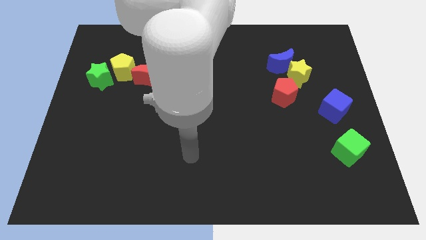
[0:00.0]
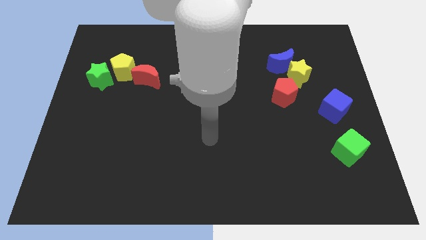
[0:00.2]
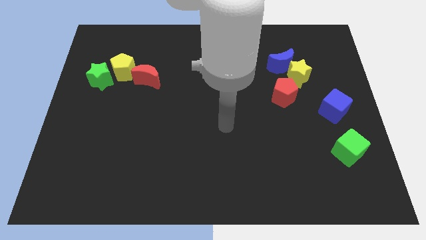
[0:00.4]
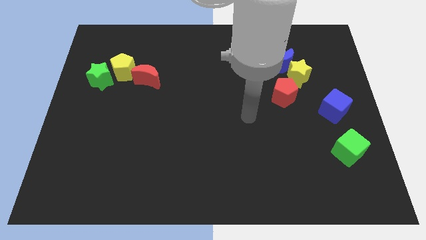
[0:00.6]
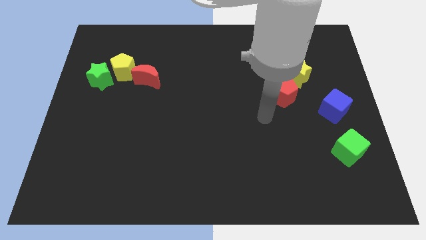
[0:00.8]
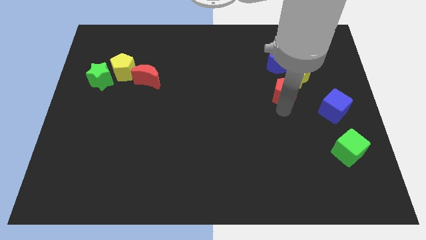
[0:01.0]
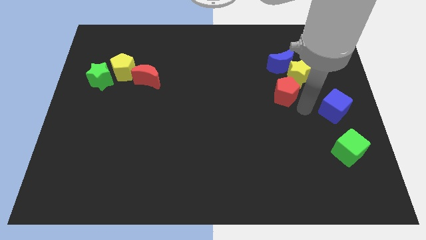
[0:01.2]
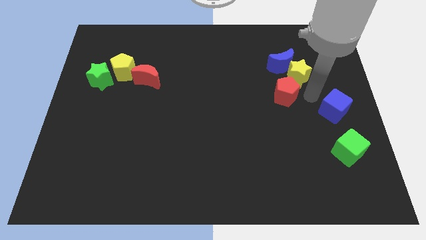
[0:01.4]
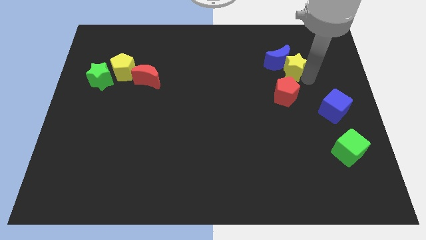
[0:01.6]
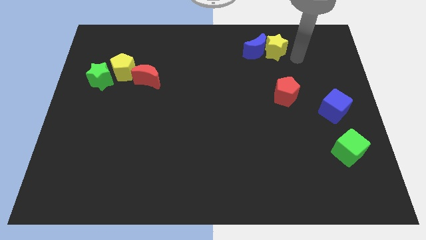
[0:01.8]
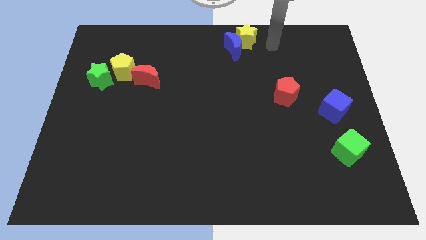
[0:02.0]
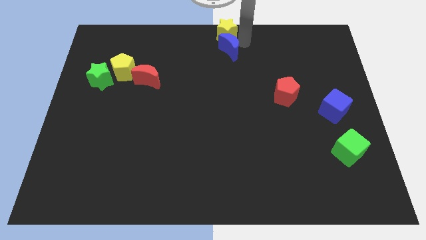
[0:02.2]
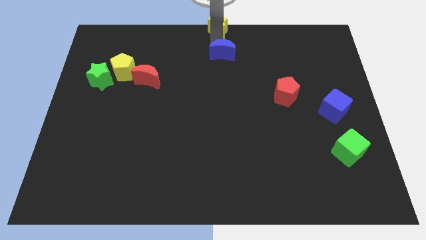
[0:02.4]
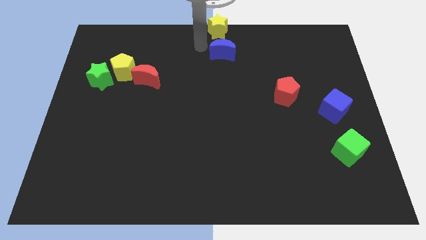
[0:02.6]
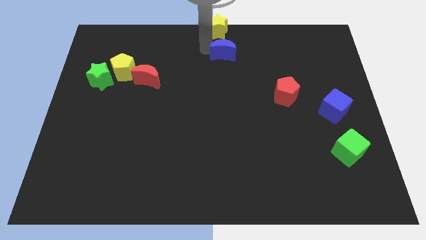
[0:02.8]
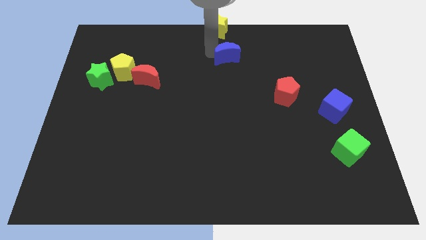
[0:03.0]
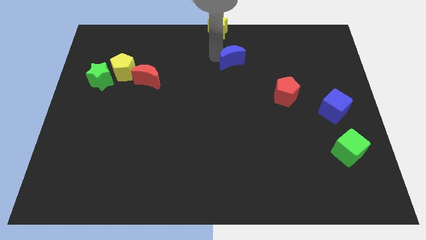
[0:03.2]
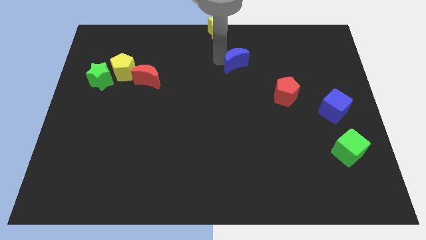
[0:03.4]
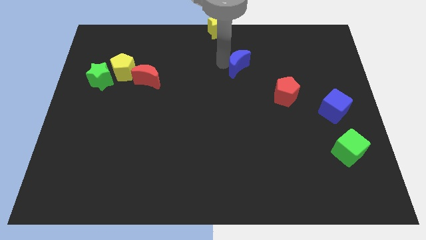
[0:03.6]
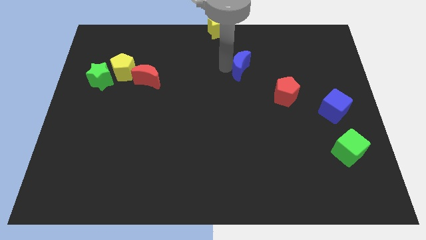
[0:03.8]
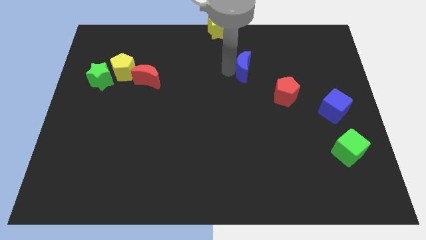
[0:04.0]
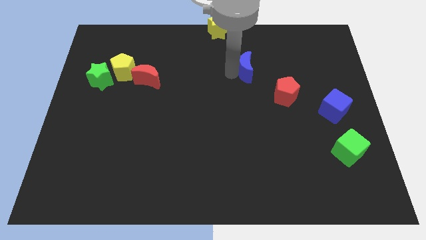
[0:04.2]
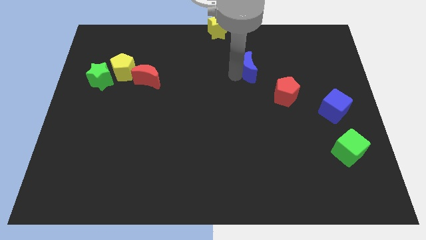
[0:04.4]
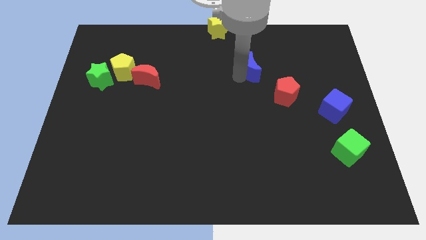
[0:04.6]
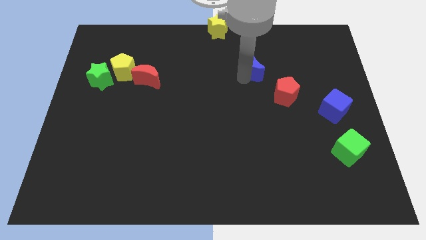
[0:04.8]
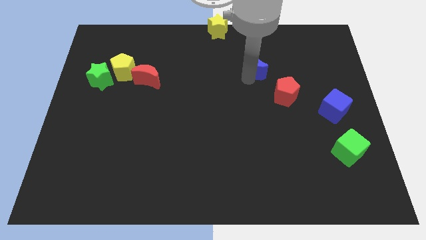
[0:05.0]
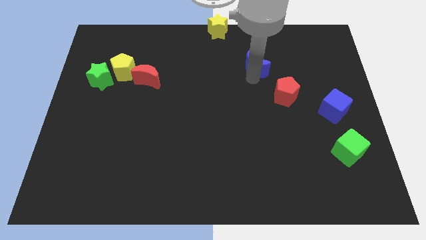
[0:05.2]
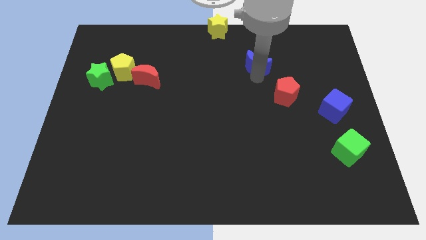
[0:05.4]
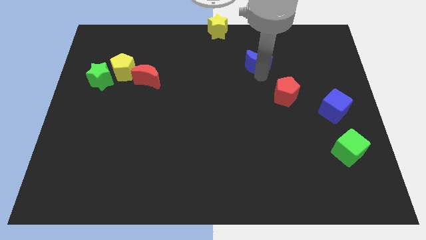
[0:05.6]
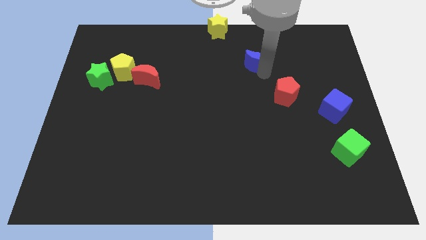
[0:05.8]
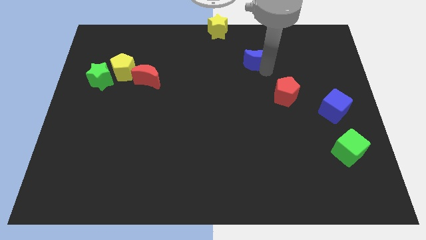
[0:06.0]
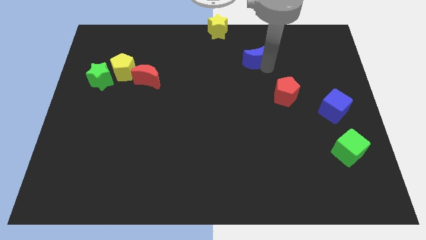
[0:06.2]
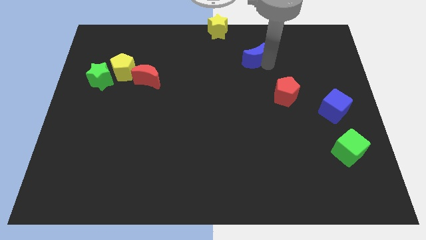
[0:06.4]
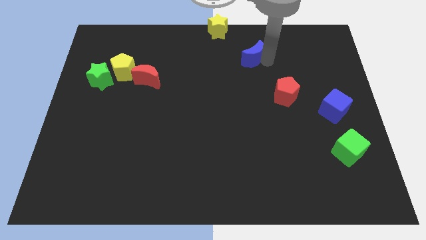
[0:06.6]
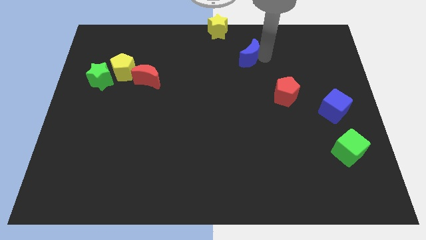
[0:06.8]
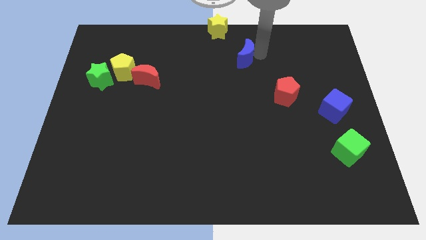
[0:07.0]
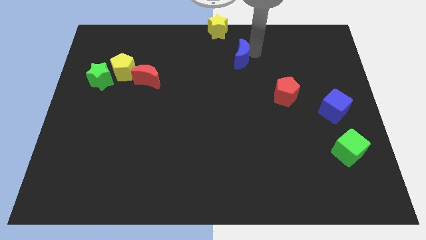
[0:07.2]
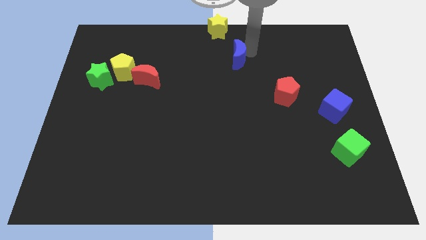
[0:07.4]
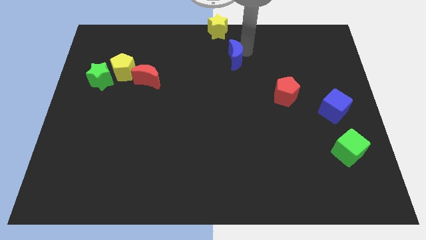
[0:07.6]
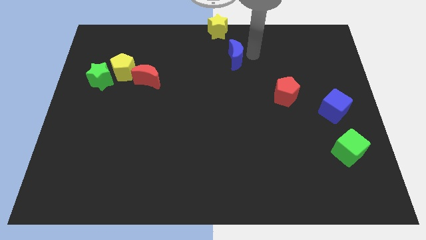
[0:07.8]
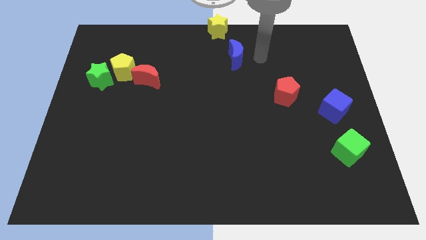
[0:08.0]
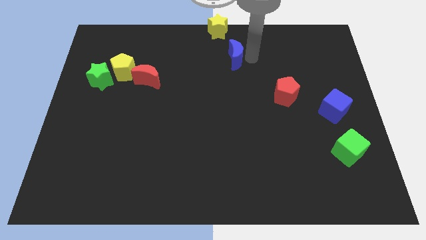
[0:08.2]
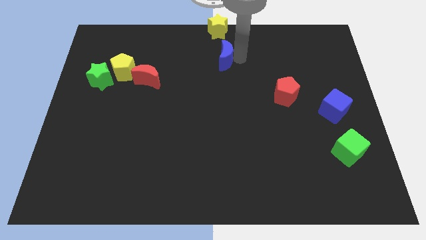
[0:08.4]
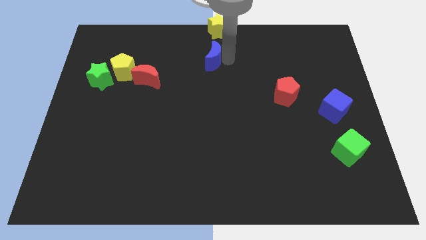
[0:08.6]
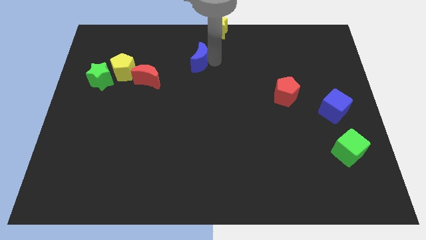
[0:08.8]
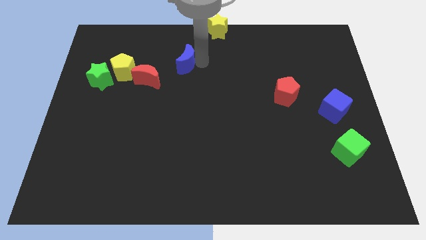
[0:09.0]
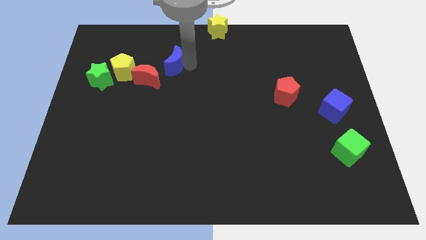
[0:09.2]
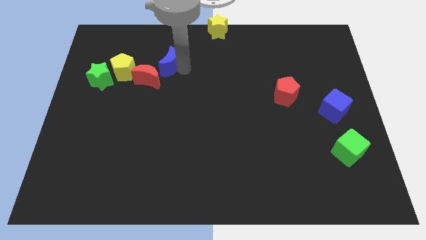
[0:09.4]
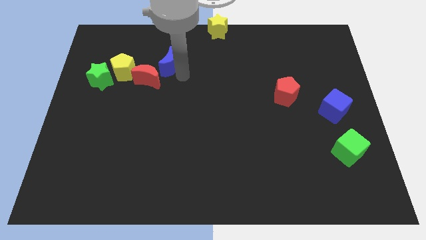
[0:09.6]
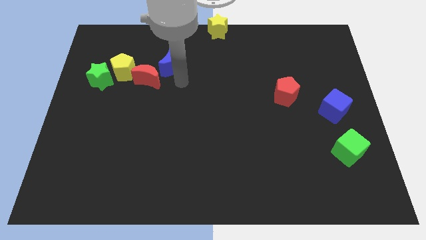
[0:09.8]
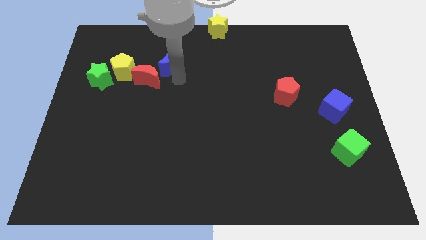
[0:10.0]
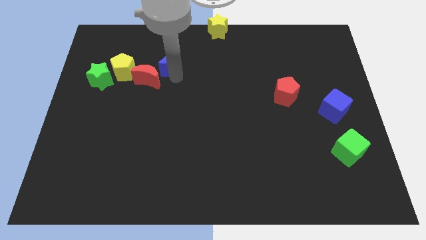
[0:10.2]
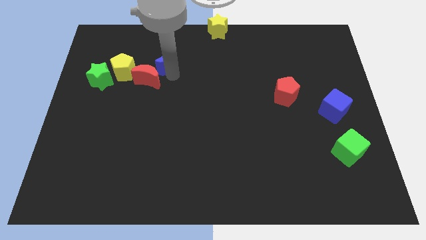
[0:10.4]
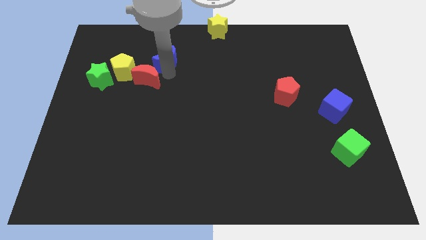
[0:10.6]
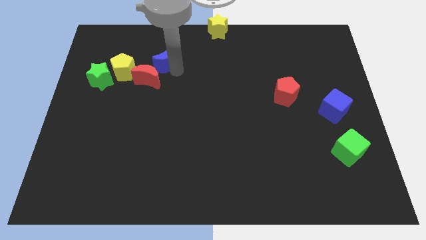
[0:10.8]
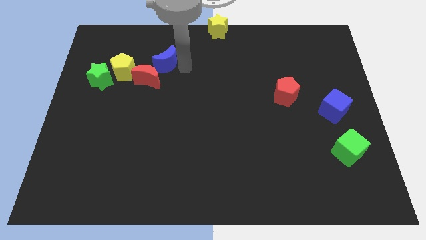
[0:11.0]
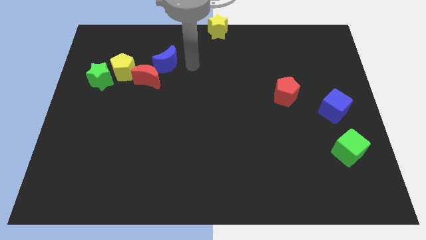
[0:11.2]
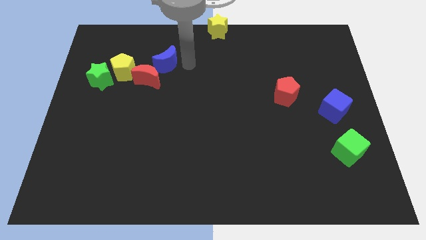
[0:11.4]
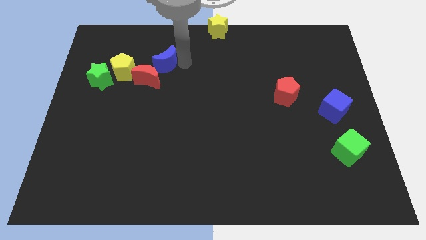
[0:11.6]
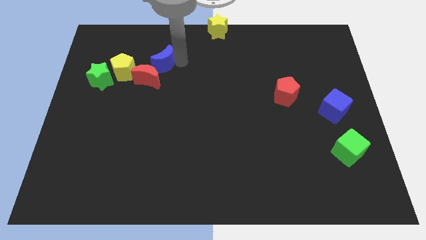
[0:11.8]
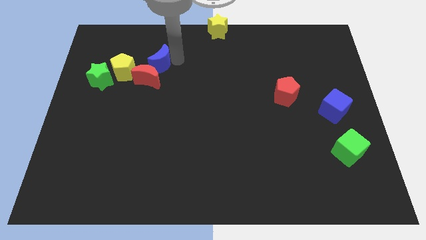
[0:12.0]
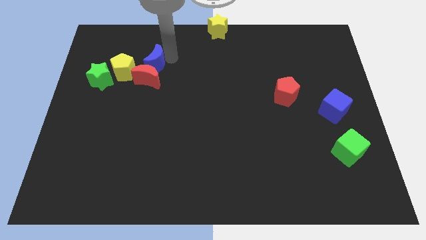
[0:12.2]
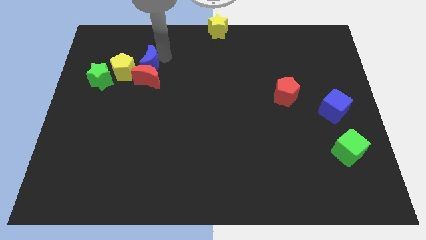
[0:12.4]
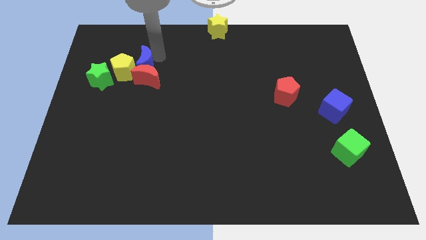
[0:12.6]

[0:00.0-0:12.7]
put the blue moon towards the yellow pentagon
